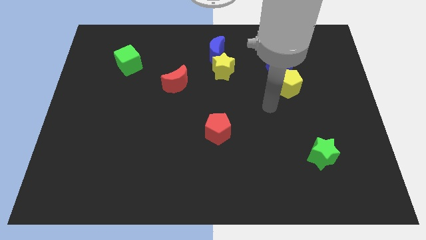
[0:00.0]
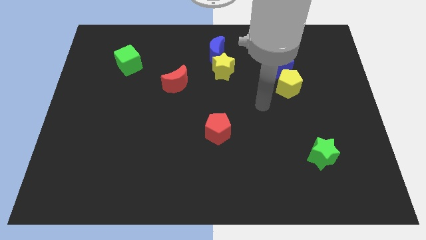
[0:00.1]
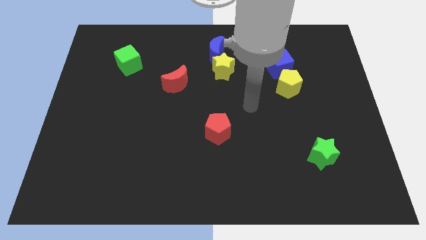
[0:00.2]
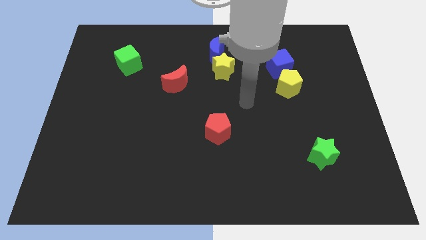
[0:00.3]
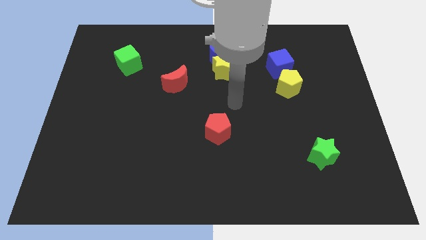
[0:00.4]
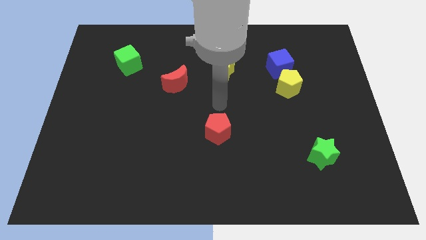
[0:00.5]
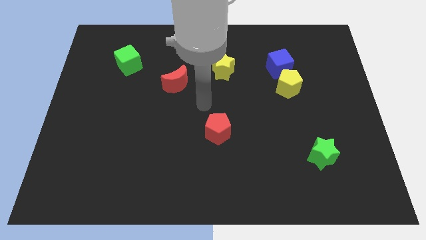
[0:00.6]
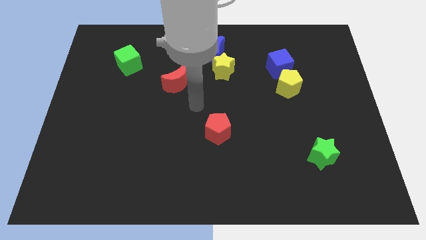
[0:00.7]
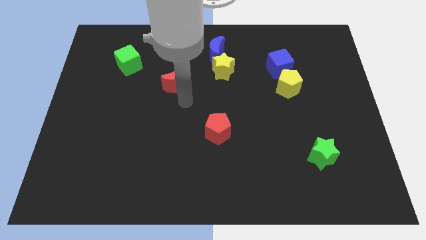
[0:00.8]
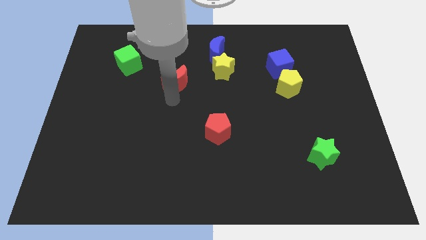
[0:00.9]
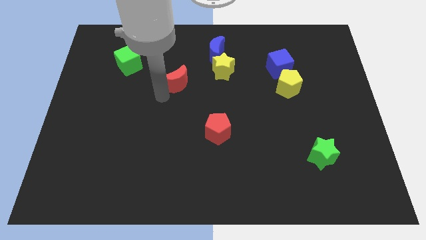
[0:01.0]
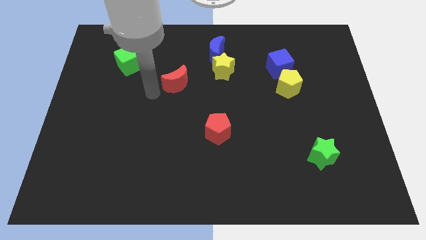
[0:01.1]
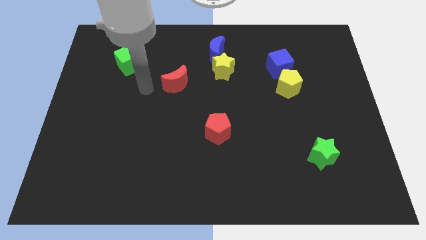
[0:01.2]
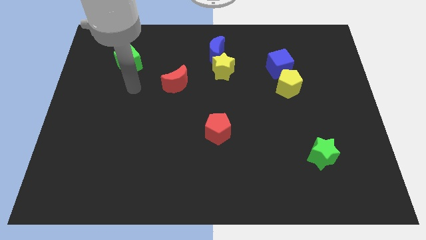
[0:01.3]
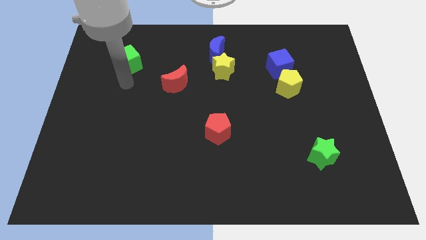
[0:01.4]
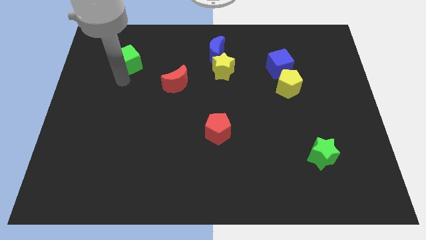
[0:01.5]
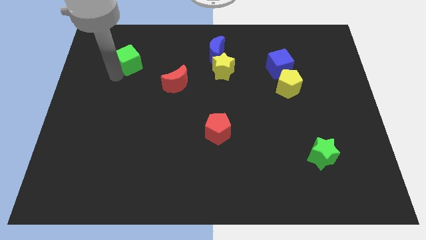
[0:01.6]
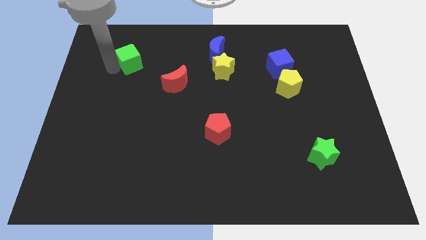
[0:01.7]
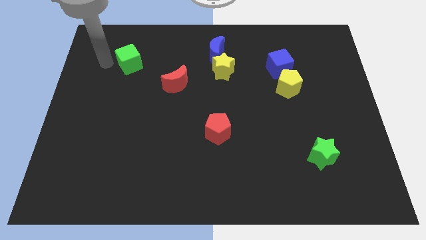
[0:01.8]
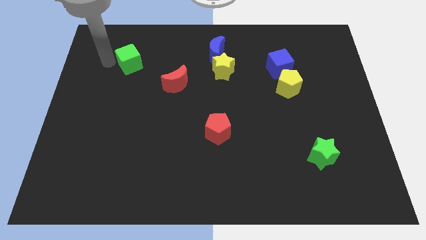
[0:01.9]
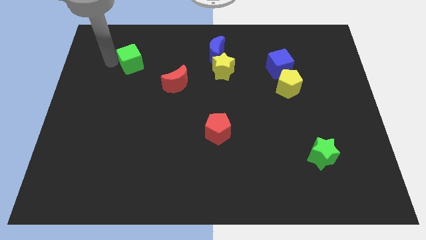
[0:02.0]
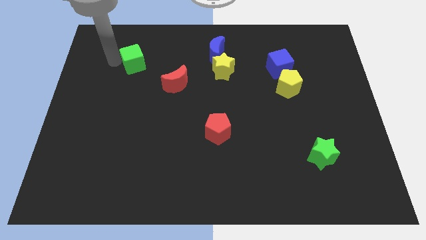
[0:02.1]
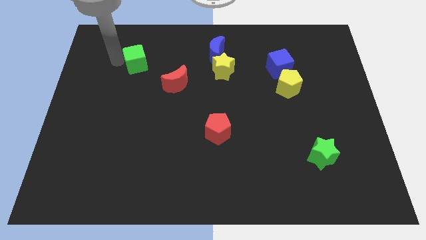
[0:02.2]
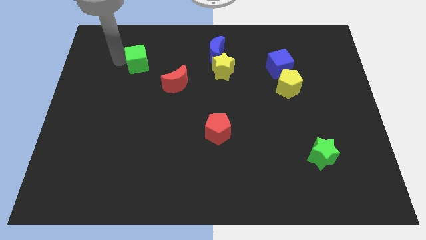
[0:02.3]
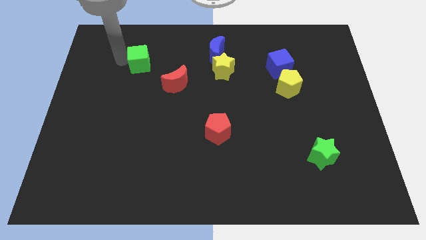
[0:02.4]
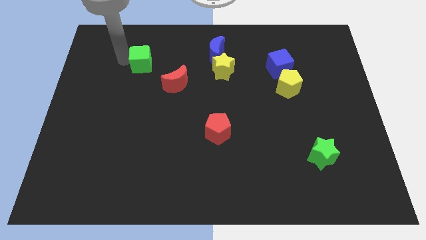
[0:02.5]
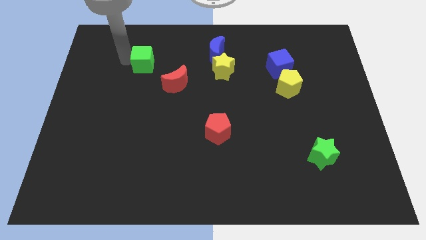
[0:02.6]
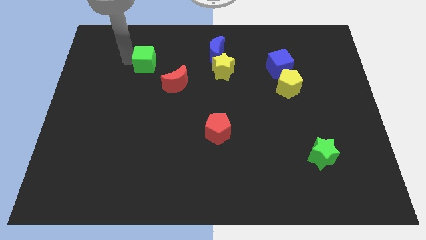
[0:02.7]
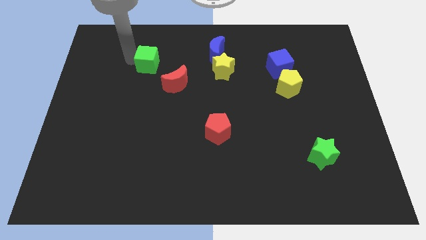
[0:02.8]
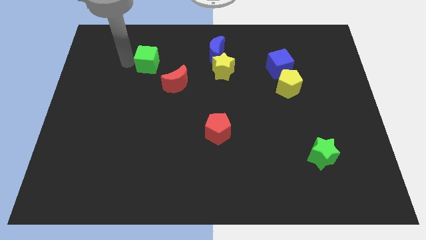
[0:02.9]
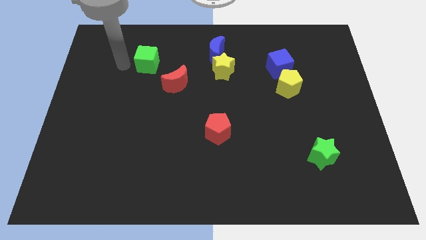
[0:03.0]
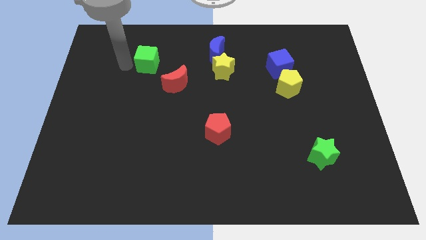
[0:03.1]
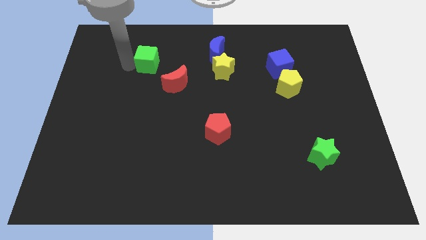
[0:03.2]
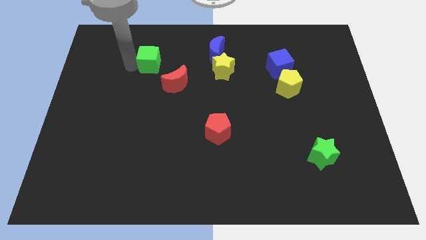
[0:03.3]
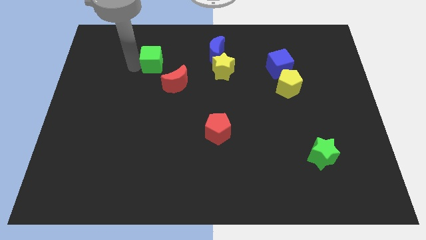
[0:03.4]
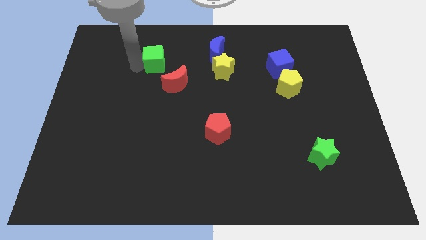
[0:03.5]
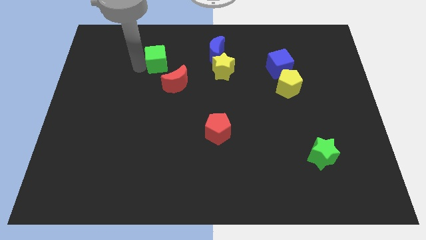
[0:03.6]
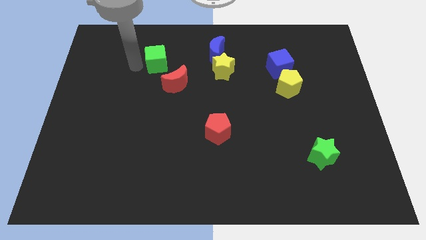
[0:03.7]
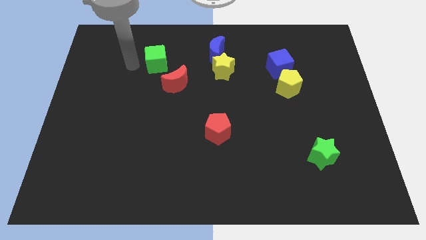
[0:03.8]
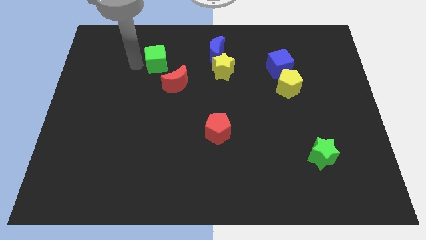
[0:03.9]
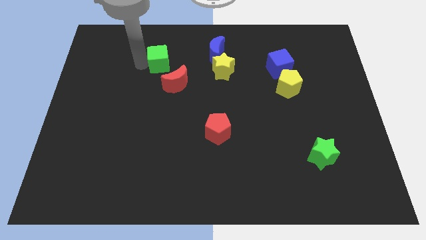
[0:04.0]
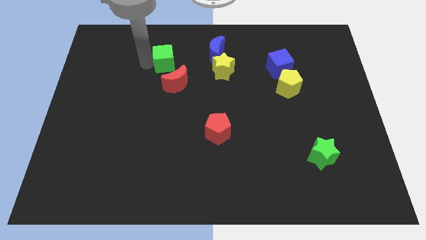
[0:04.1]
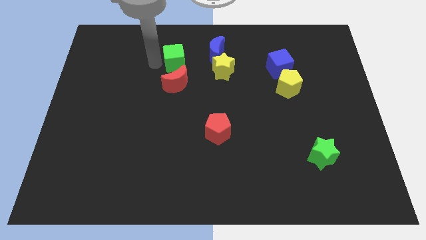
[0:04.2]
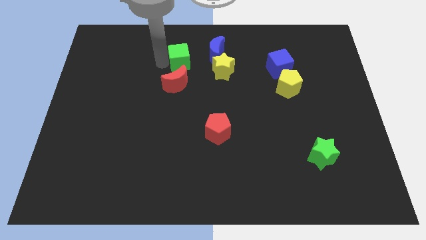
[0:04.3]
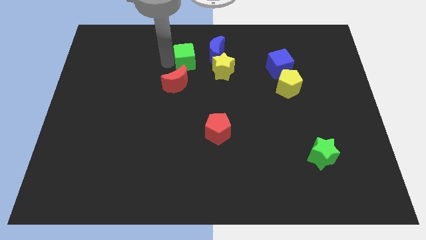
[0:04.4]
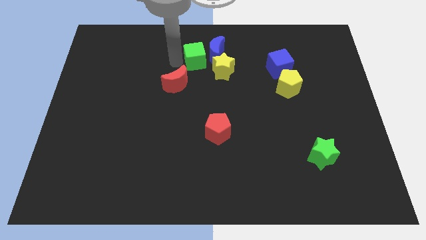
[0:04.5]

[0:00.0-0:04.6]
put the green cube towards the blue moon

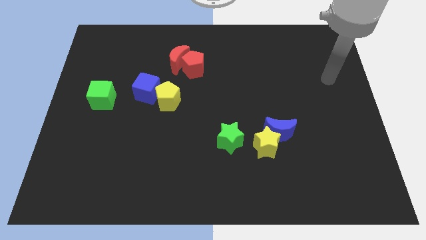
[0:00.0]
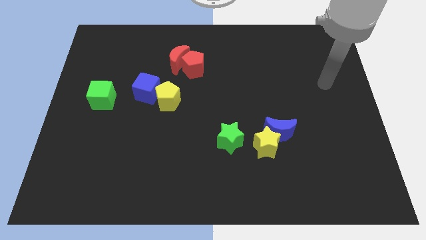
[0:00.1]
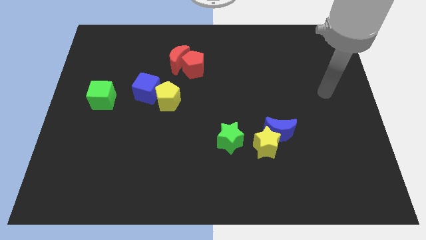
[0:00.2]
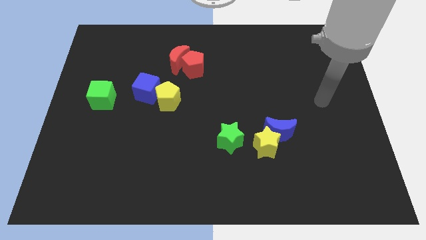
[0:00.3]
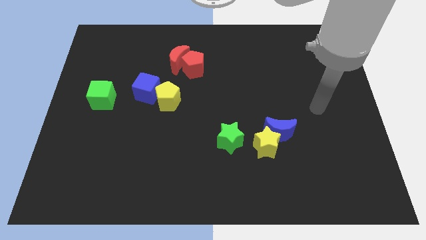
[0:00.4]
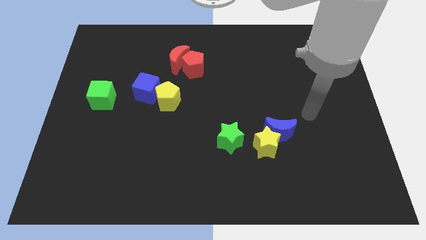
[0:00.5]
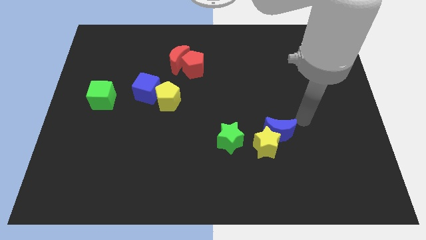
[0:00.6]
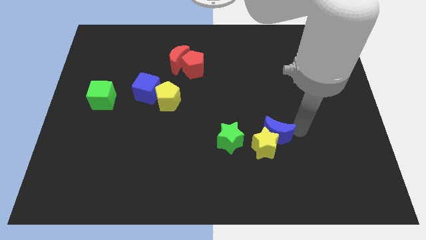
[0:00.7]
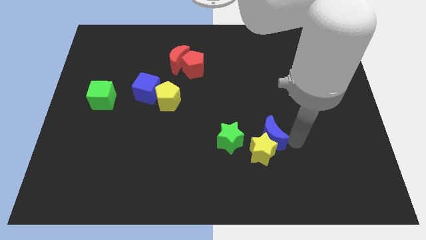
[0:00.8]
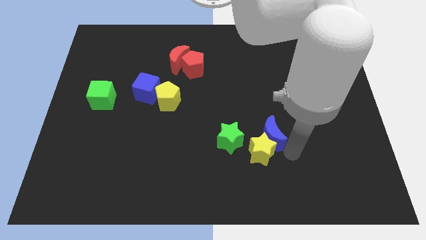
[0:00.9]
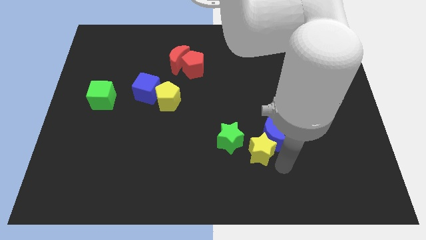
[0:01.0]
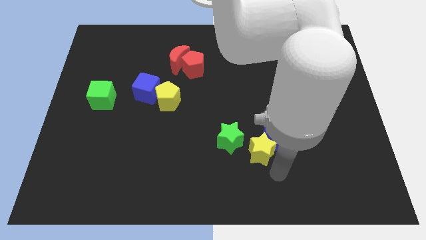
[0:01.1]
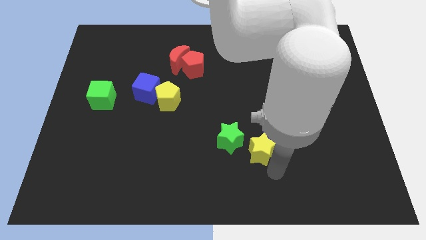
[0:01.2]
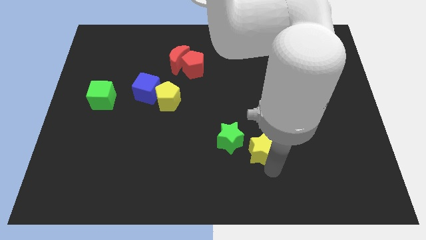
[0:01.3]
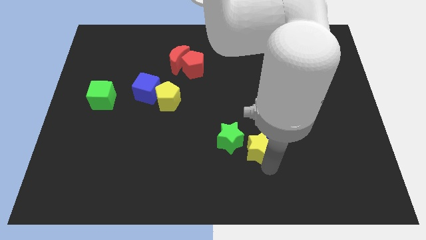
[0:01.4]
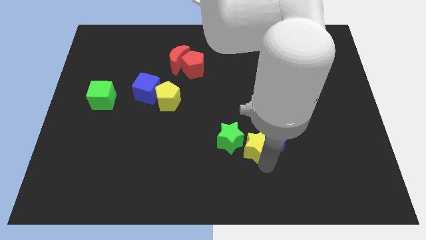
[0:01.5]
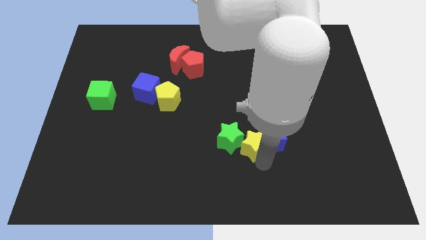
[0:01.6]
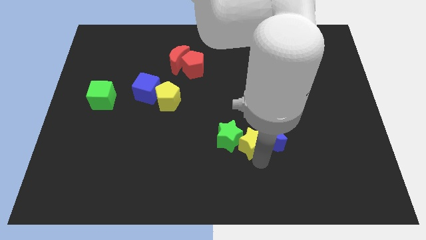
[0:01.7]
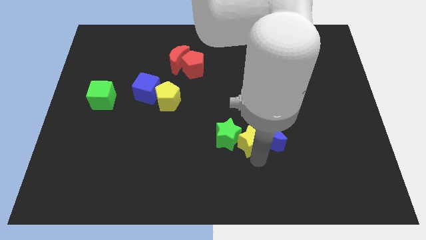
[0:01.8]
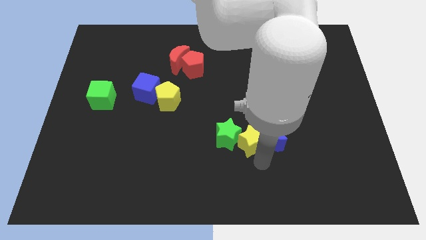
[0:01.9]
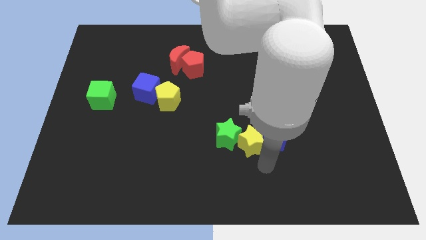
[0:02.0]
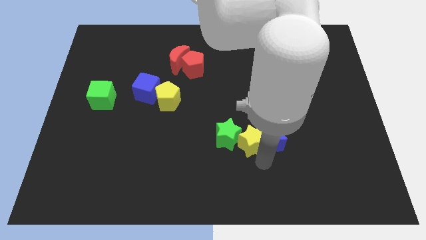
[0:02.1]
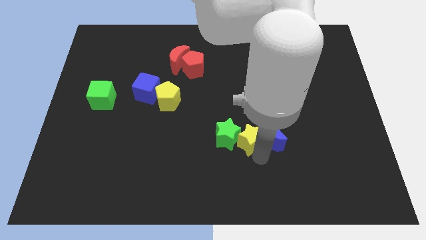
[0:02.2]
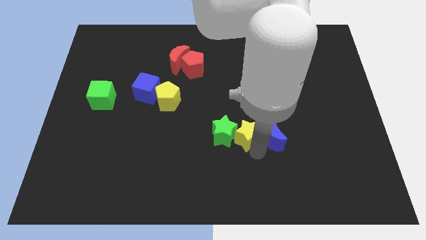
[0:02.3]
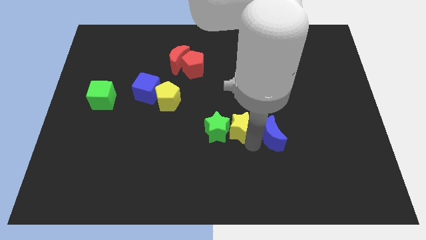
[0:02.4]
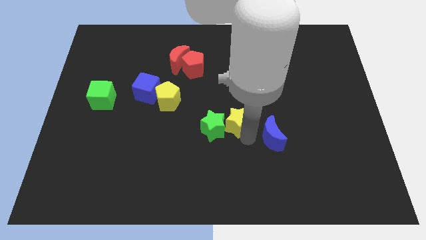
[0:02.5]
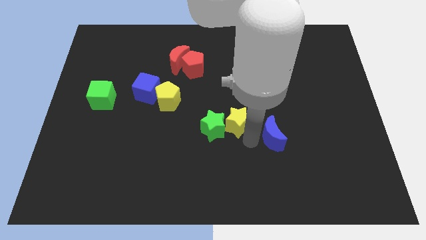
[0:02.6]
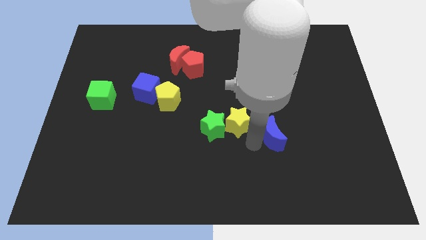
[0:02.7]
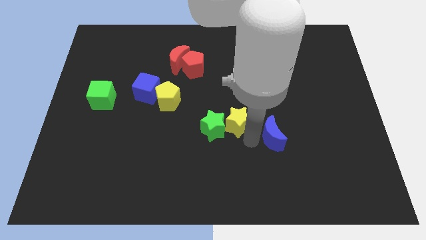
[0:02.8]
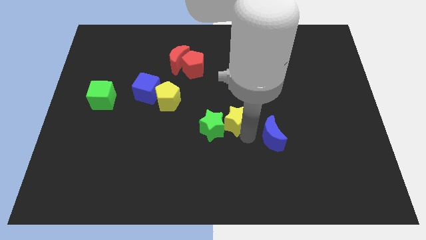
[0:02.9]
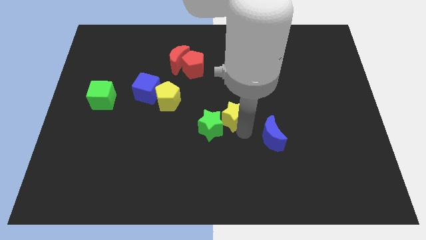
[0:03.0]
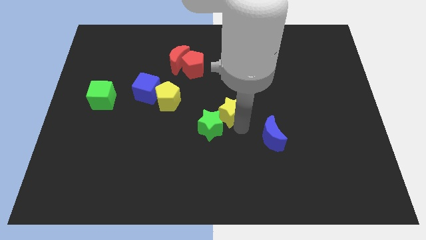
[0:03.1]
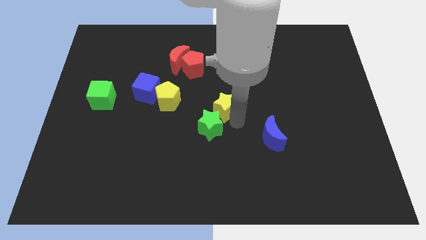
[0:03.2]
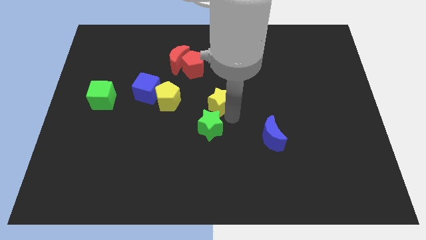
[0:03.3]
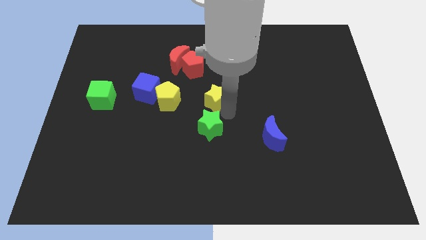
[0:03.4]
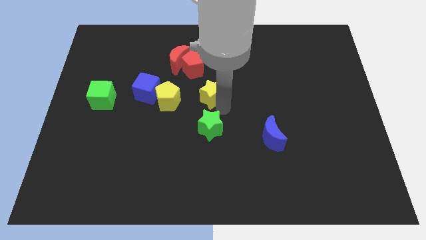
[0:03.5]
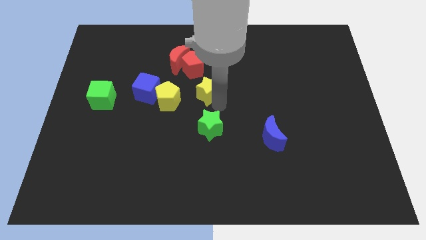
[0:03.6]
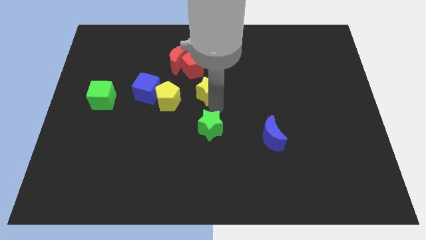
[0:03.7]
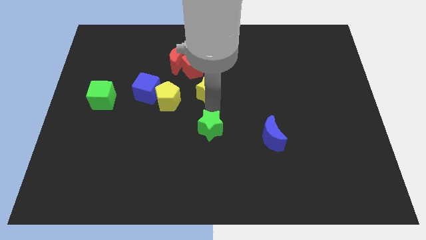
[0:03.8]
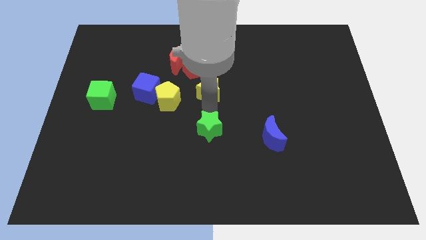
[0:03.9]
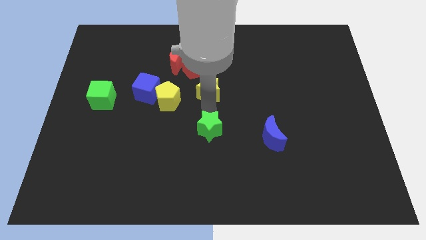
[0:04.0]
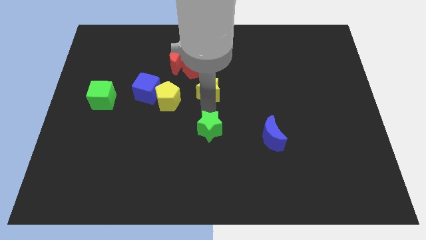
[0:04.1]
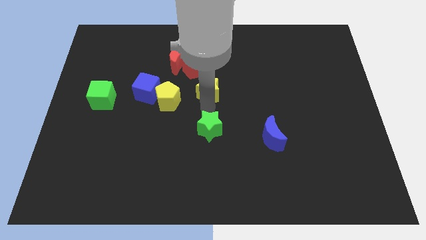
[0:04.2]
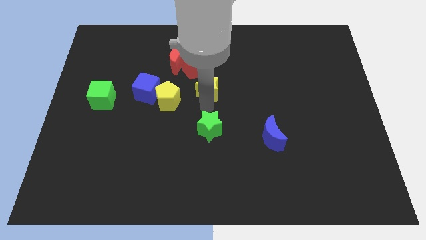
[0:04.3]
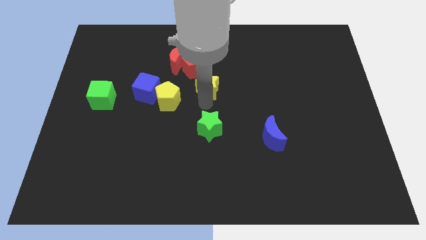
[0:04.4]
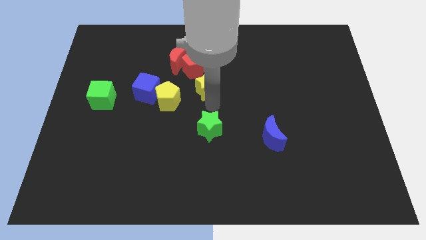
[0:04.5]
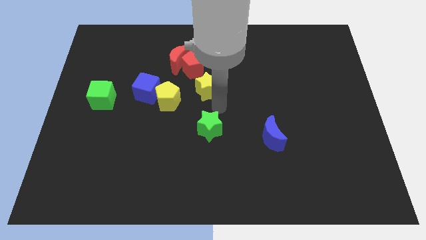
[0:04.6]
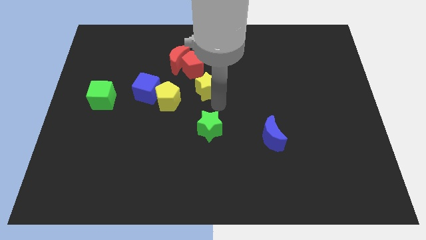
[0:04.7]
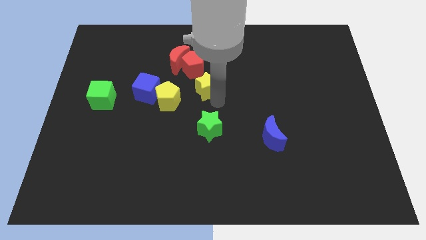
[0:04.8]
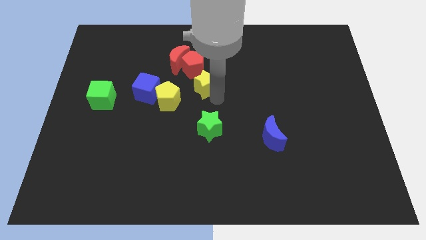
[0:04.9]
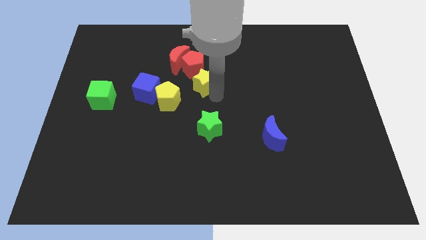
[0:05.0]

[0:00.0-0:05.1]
put the yellow star to the red pentagon
